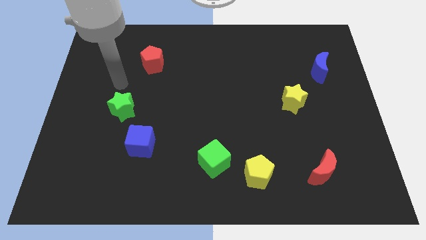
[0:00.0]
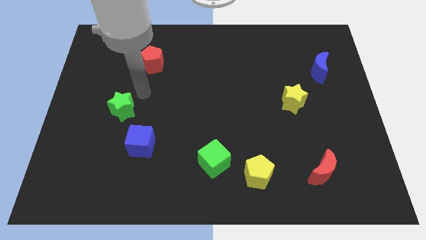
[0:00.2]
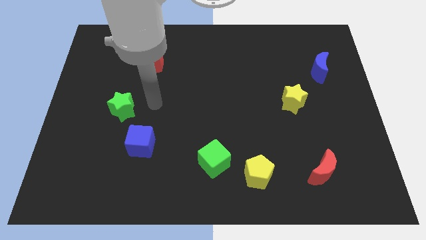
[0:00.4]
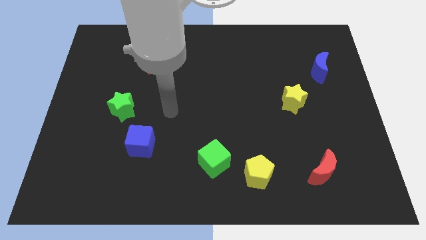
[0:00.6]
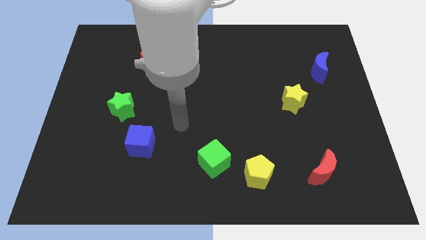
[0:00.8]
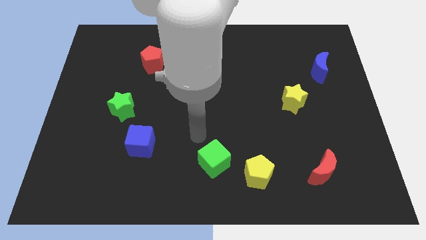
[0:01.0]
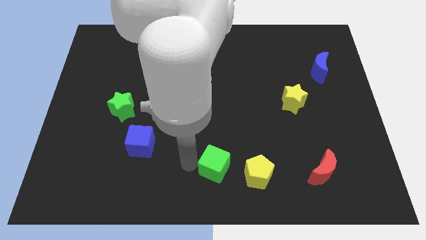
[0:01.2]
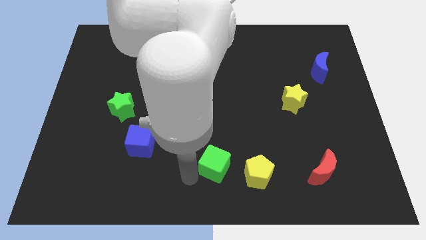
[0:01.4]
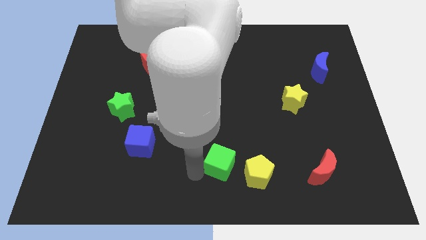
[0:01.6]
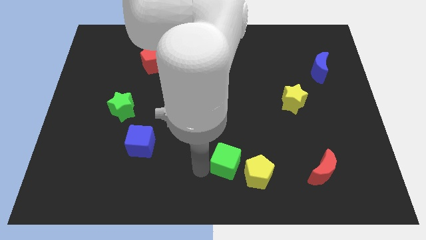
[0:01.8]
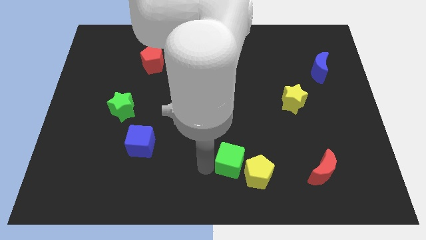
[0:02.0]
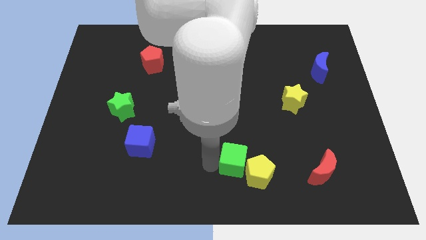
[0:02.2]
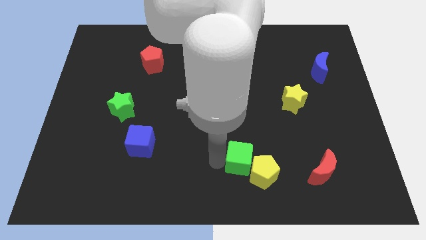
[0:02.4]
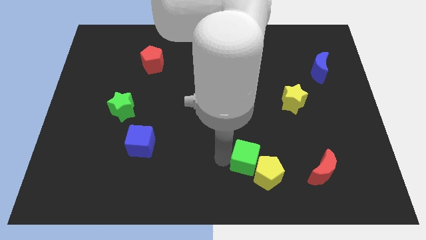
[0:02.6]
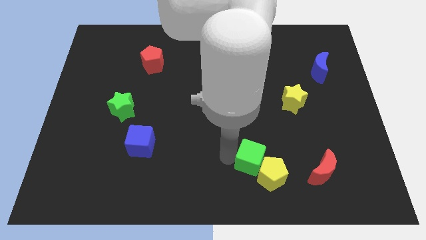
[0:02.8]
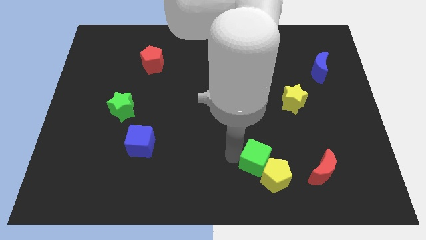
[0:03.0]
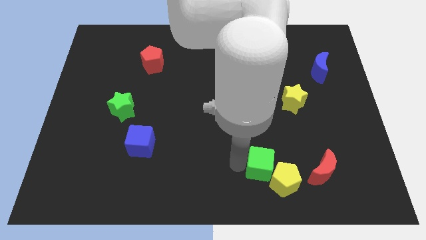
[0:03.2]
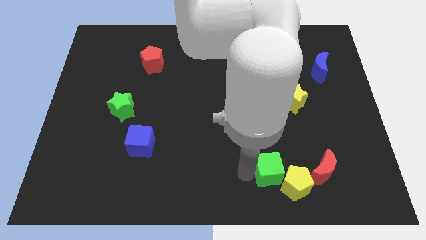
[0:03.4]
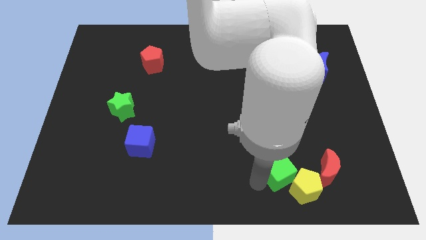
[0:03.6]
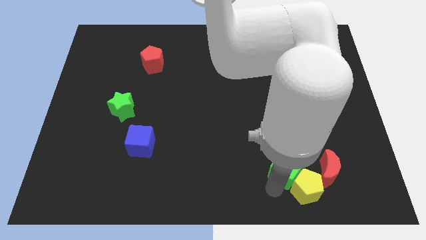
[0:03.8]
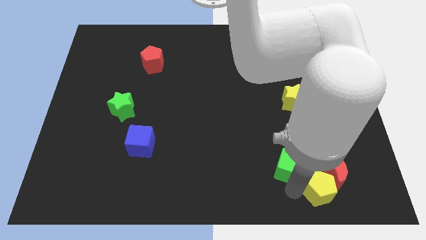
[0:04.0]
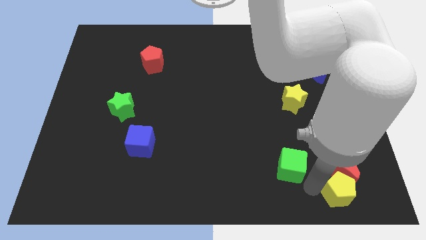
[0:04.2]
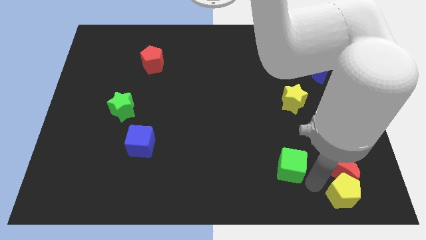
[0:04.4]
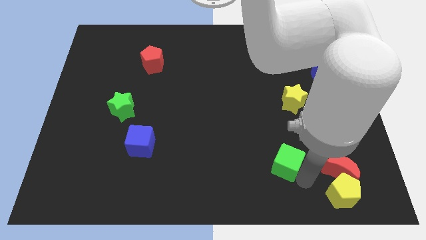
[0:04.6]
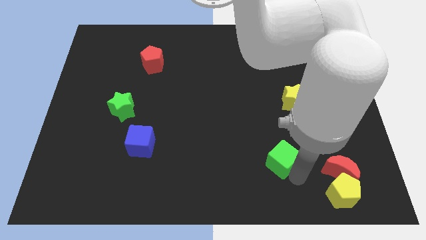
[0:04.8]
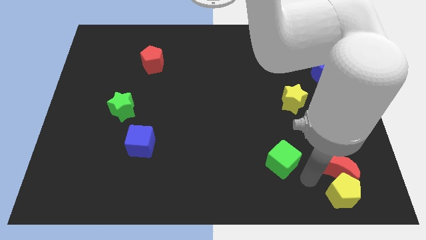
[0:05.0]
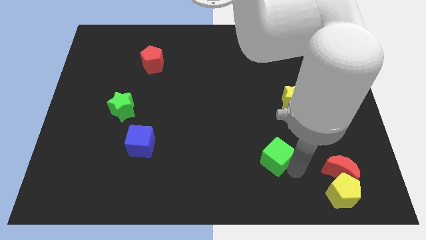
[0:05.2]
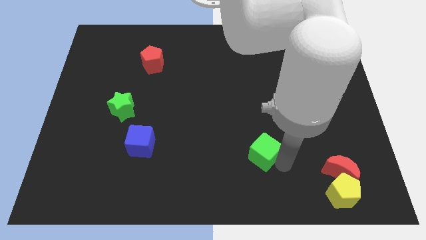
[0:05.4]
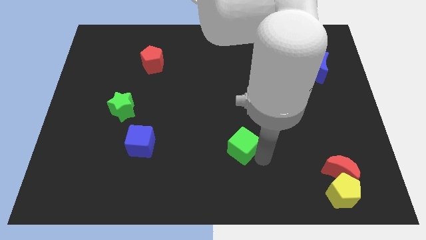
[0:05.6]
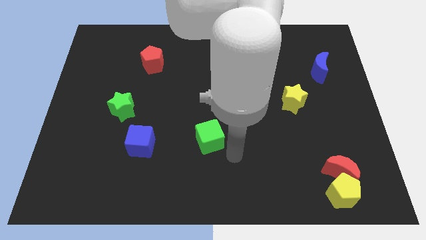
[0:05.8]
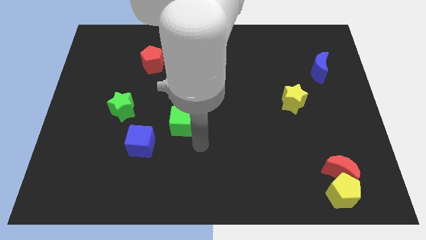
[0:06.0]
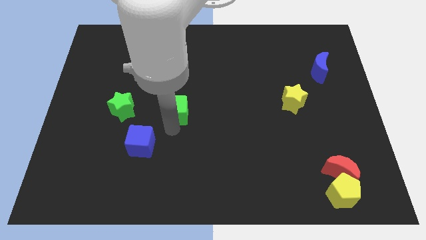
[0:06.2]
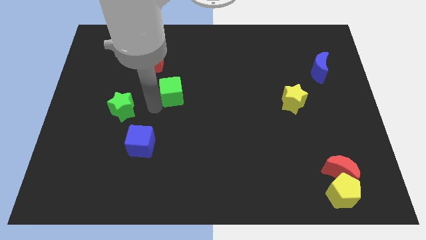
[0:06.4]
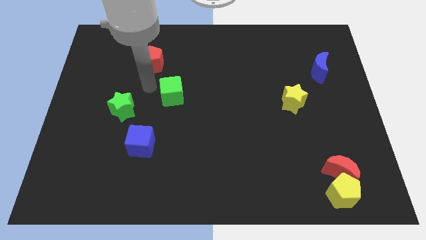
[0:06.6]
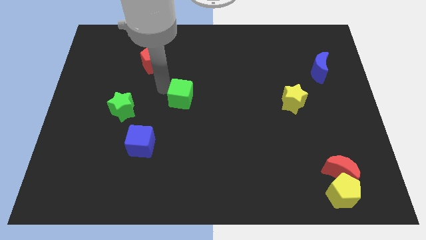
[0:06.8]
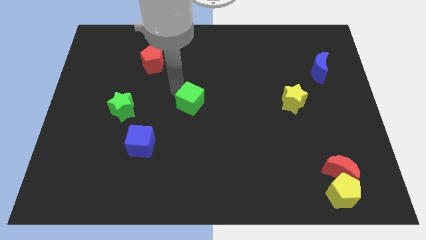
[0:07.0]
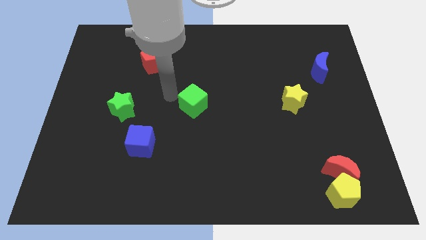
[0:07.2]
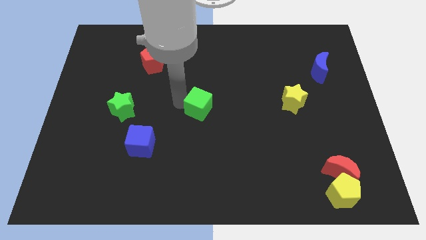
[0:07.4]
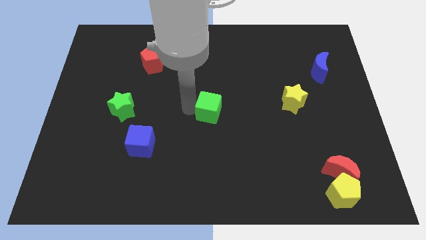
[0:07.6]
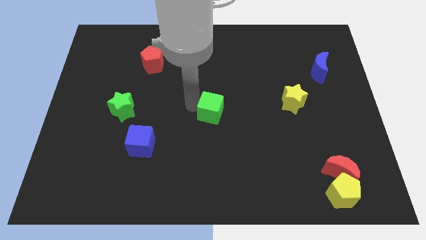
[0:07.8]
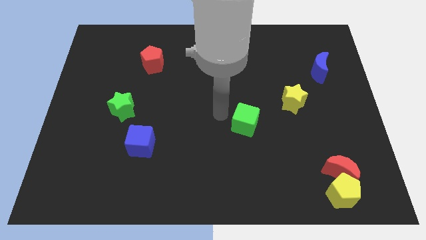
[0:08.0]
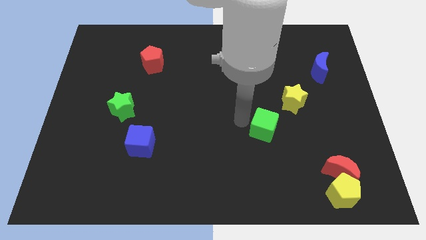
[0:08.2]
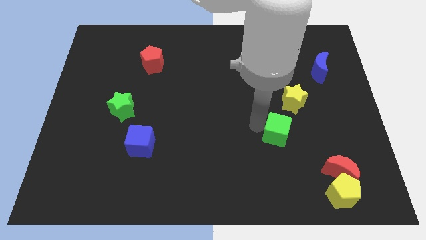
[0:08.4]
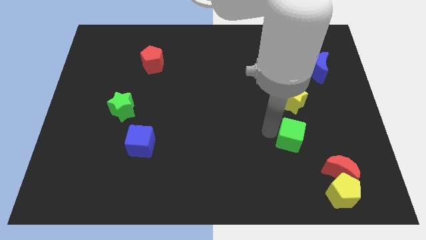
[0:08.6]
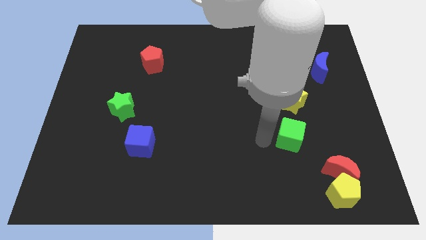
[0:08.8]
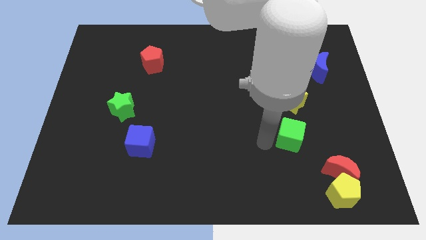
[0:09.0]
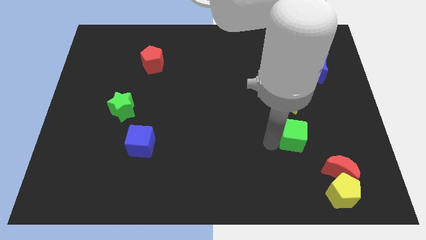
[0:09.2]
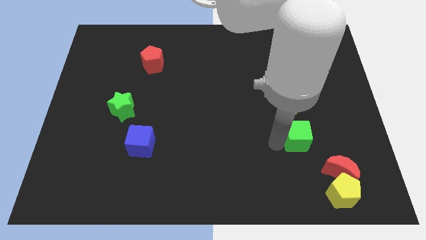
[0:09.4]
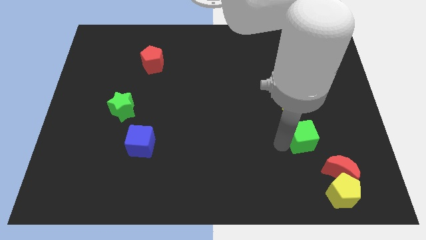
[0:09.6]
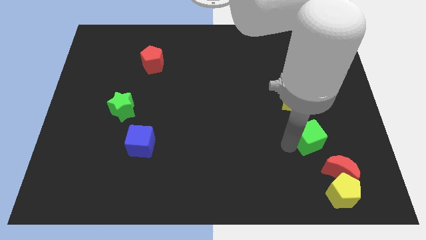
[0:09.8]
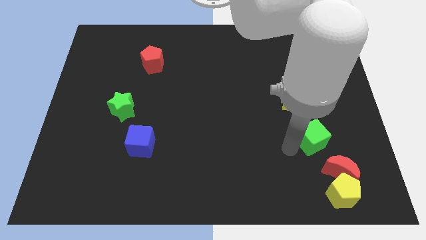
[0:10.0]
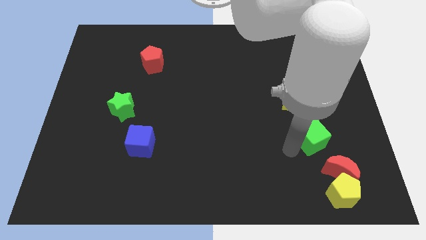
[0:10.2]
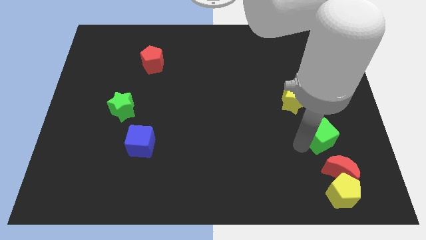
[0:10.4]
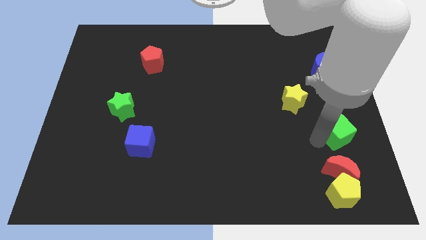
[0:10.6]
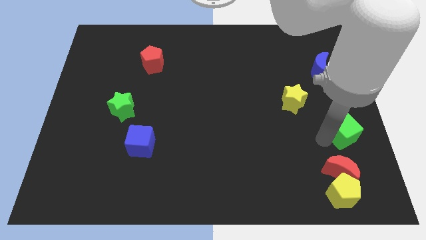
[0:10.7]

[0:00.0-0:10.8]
slide the green cube to the center right
